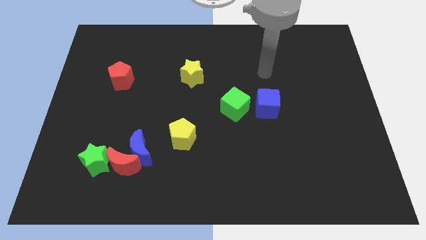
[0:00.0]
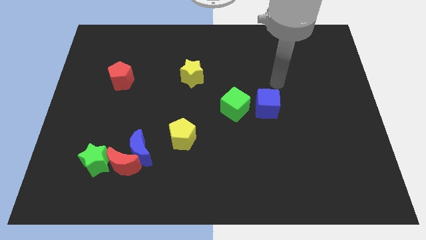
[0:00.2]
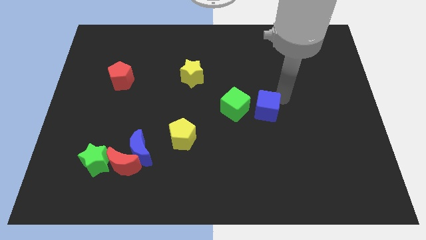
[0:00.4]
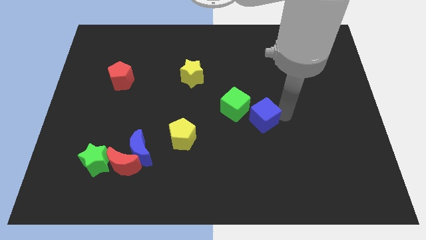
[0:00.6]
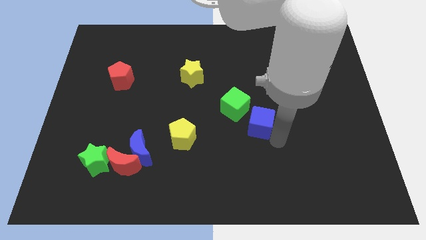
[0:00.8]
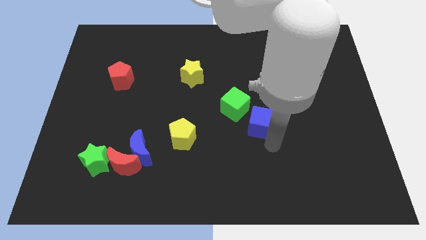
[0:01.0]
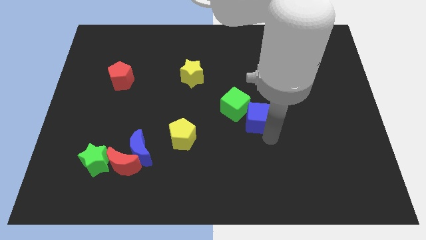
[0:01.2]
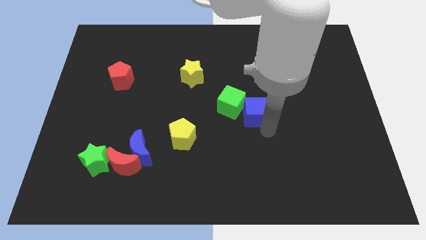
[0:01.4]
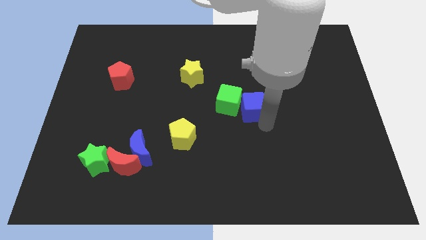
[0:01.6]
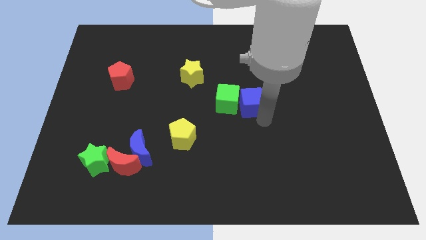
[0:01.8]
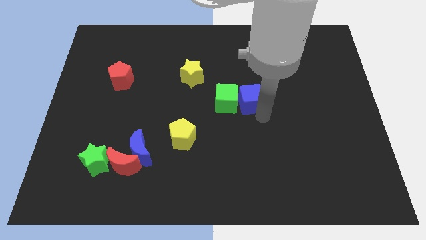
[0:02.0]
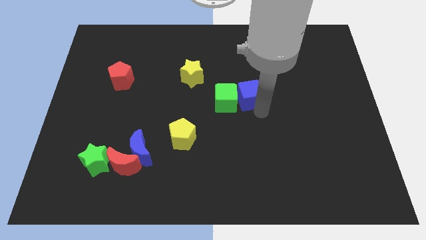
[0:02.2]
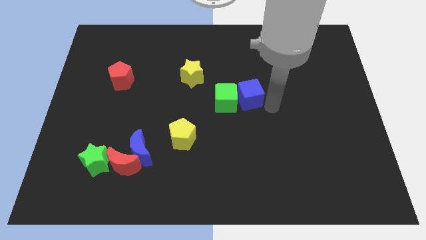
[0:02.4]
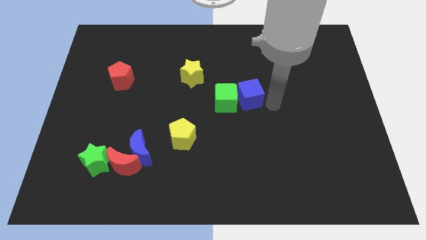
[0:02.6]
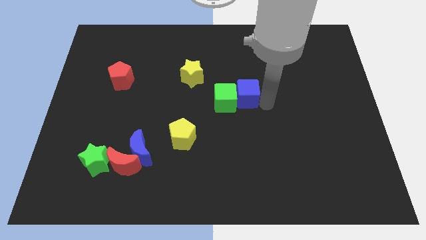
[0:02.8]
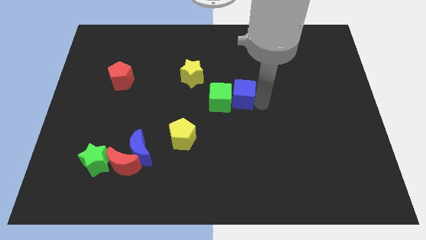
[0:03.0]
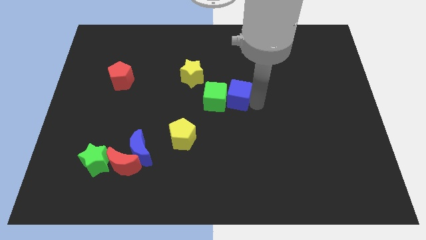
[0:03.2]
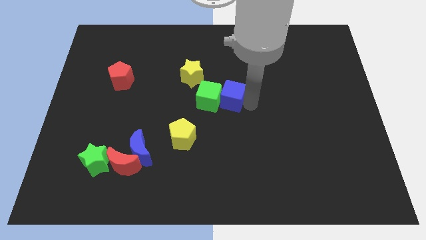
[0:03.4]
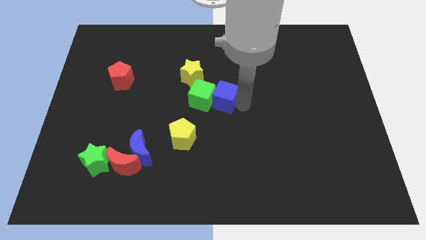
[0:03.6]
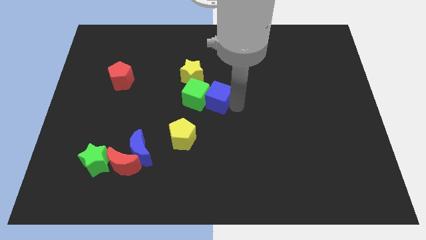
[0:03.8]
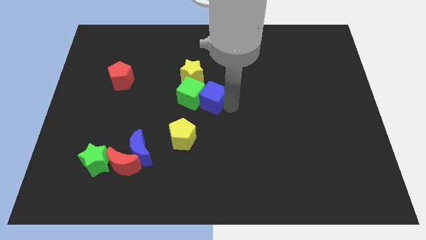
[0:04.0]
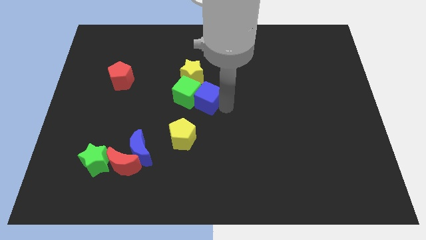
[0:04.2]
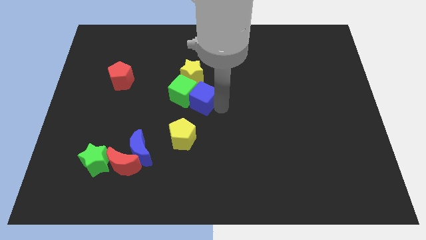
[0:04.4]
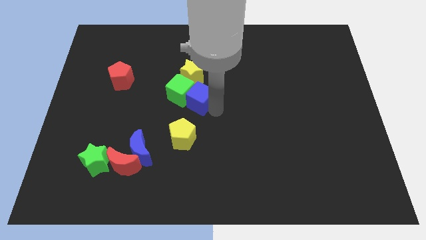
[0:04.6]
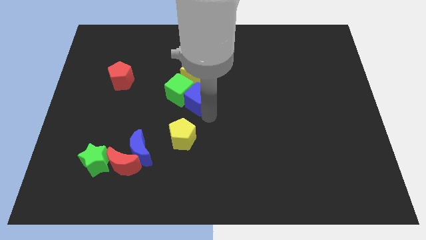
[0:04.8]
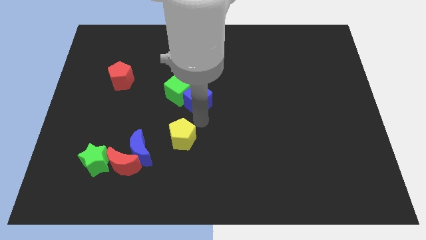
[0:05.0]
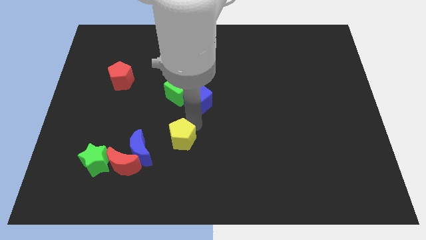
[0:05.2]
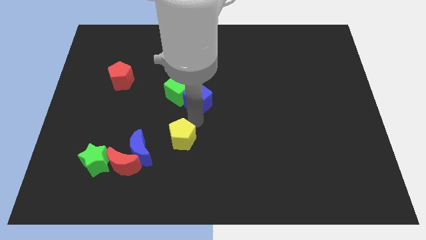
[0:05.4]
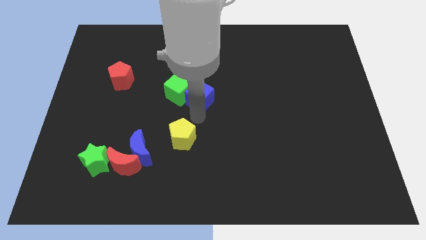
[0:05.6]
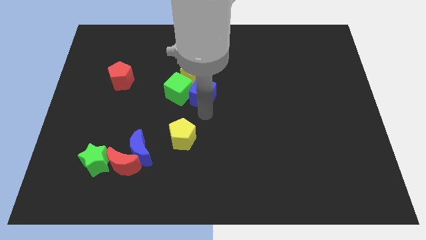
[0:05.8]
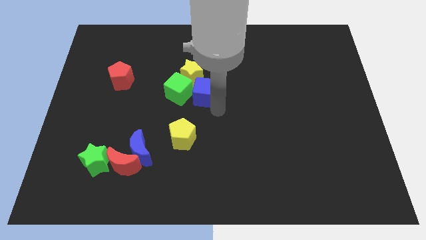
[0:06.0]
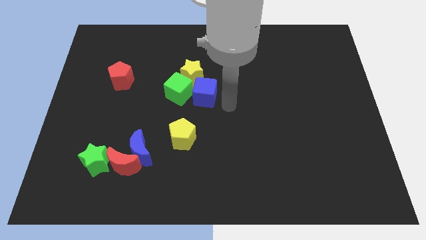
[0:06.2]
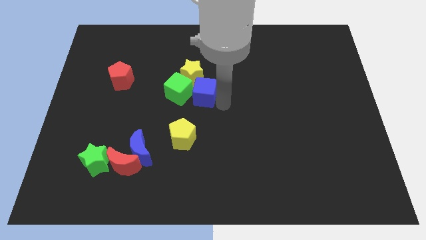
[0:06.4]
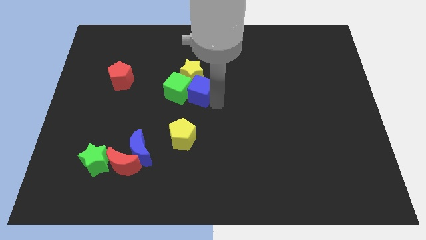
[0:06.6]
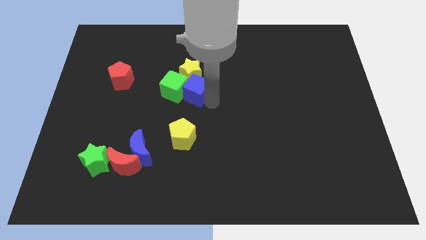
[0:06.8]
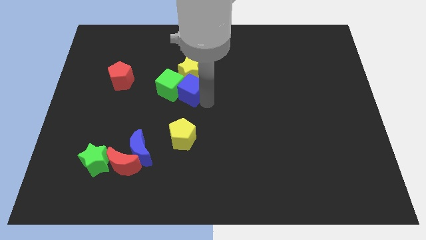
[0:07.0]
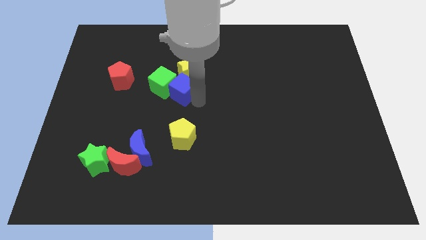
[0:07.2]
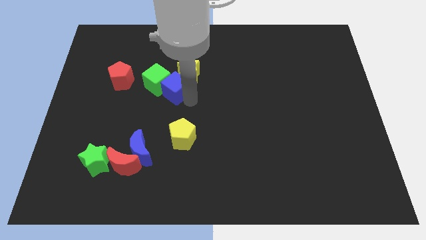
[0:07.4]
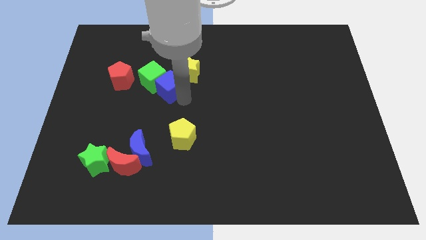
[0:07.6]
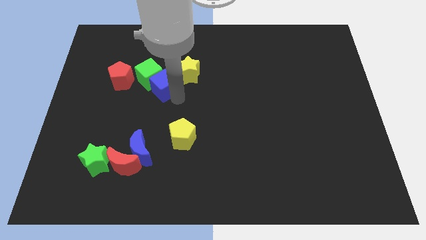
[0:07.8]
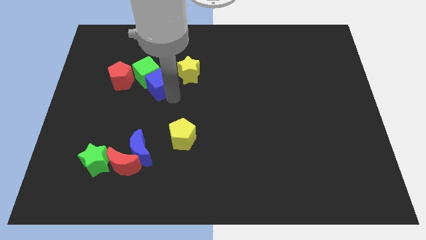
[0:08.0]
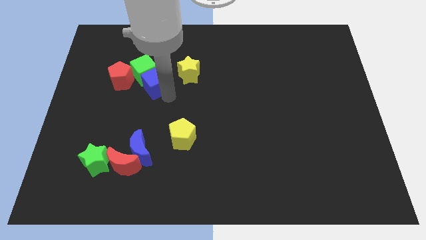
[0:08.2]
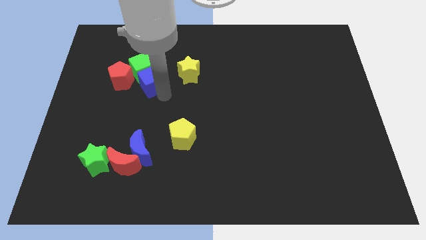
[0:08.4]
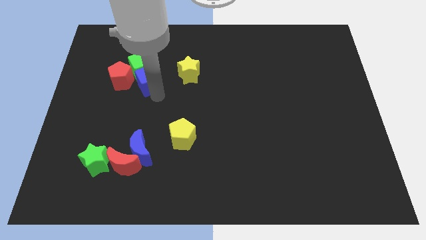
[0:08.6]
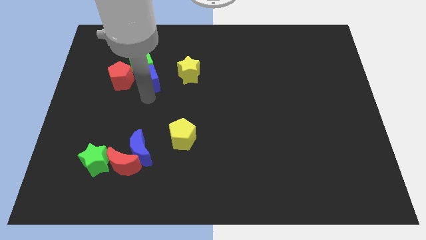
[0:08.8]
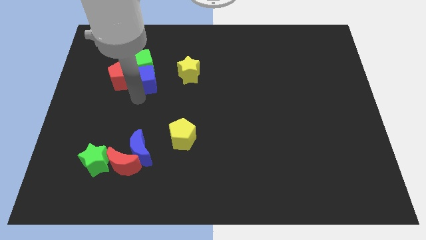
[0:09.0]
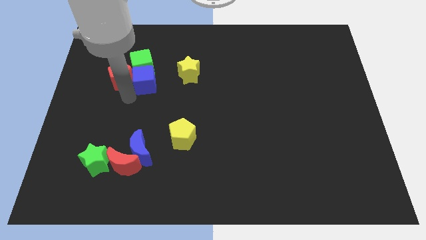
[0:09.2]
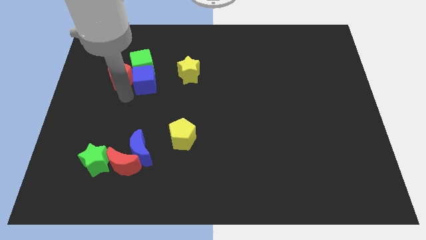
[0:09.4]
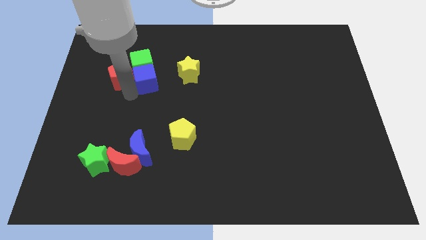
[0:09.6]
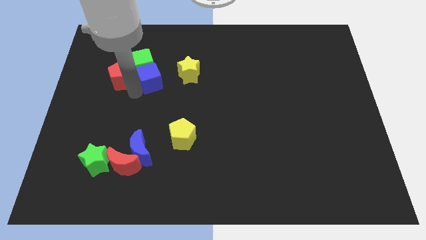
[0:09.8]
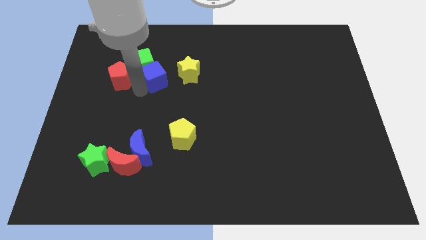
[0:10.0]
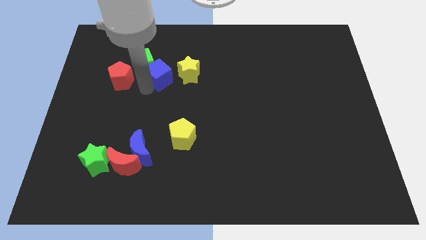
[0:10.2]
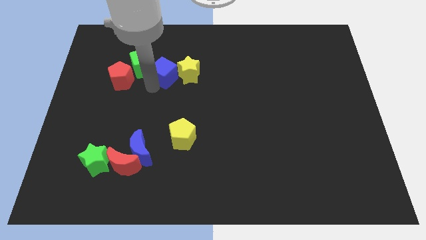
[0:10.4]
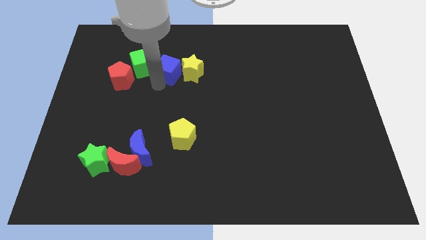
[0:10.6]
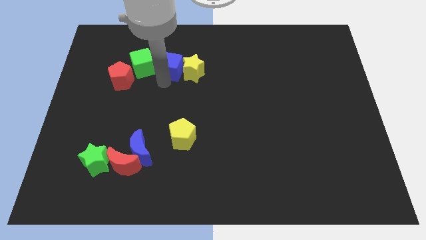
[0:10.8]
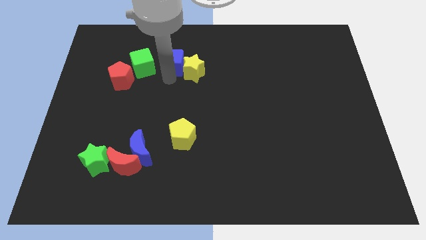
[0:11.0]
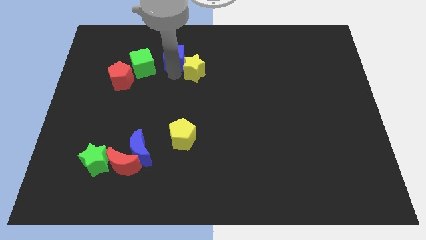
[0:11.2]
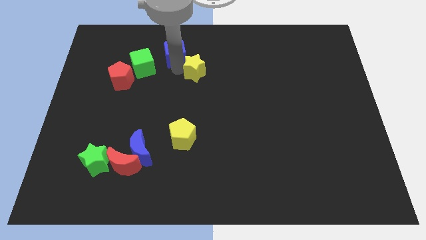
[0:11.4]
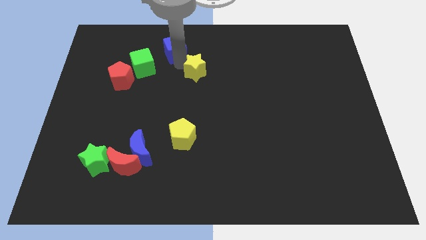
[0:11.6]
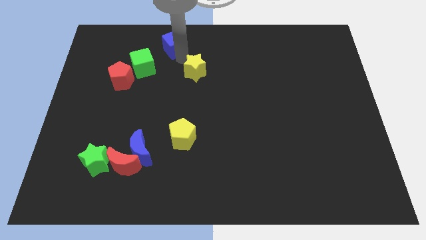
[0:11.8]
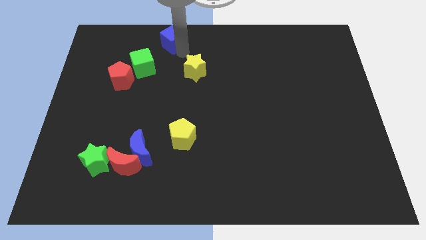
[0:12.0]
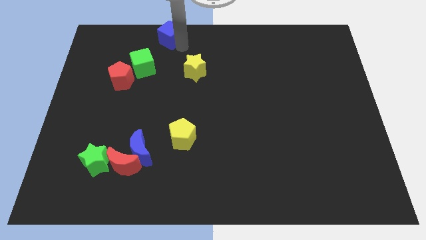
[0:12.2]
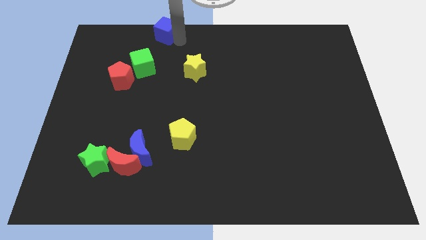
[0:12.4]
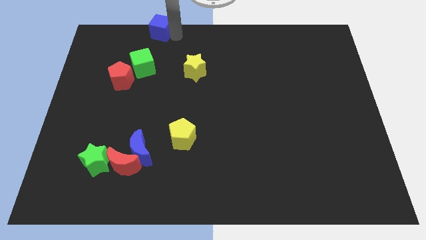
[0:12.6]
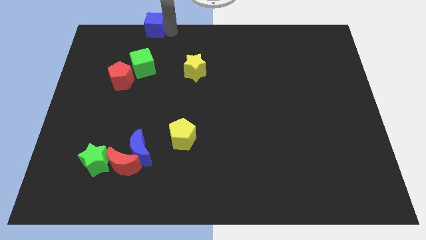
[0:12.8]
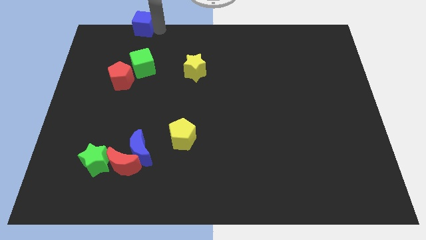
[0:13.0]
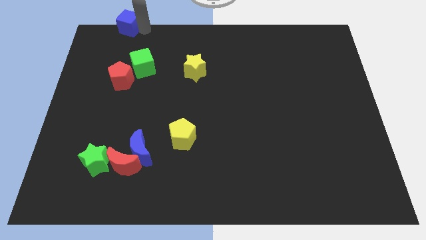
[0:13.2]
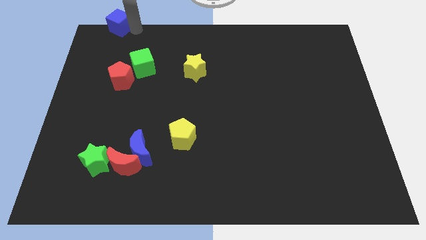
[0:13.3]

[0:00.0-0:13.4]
move the blue cube to the upper left corner

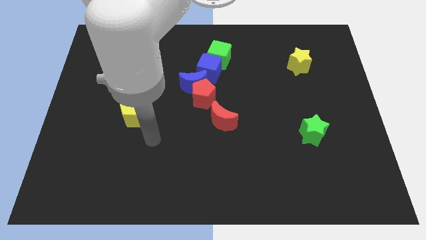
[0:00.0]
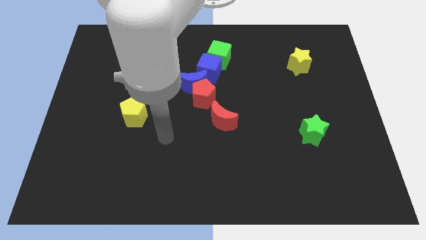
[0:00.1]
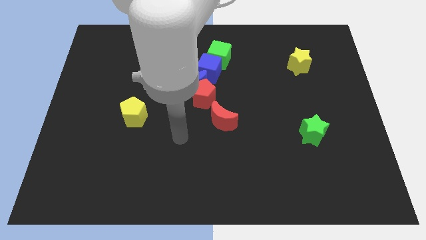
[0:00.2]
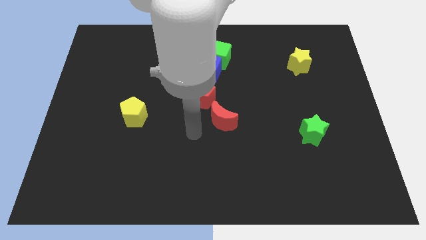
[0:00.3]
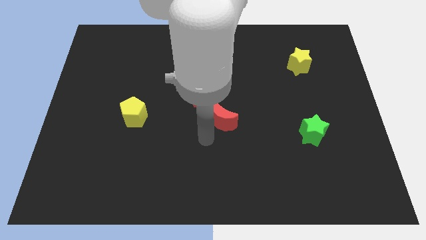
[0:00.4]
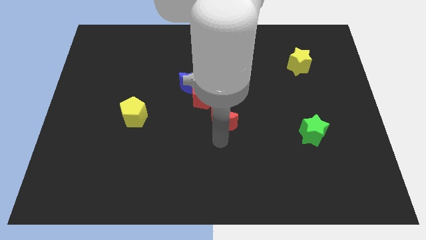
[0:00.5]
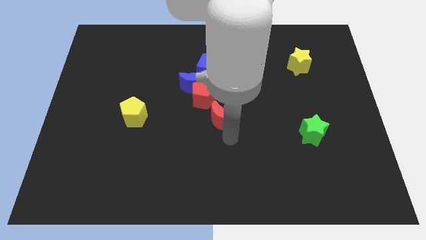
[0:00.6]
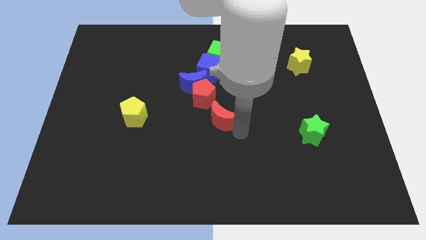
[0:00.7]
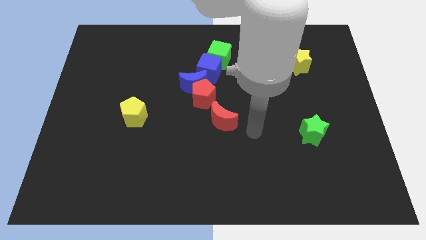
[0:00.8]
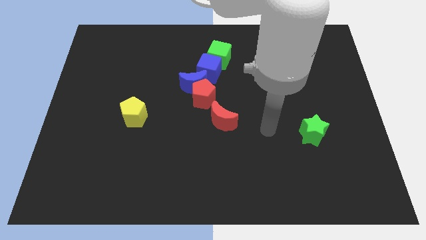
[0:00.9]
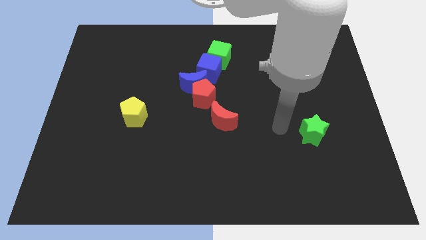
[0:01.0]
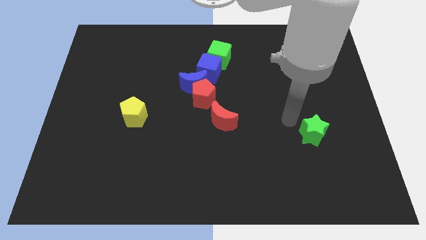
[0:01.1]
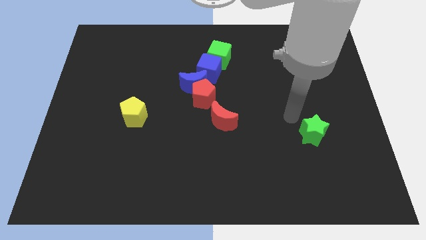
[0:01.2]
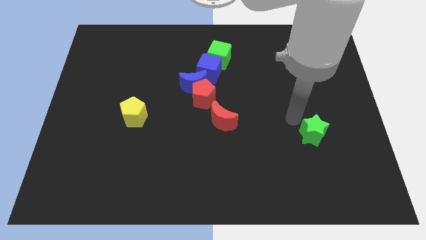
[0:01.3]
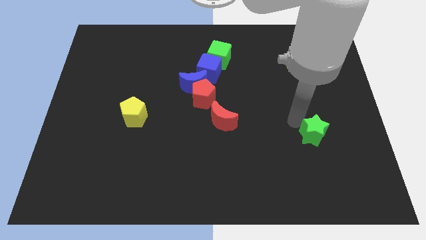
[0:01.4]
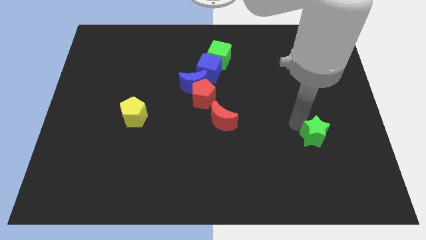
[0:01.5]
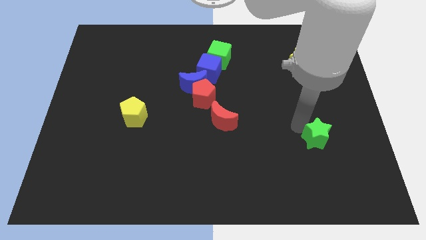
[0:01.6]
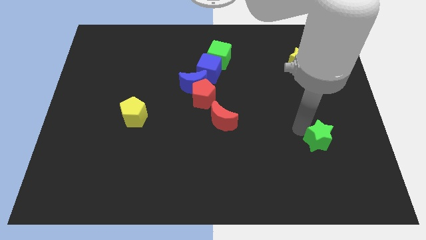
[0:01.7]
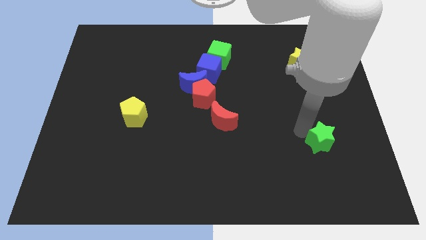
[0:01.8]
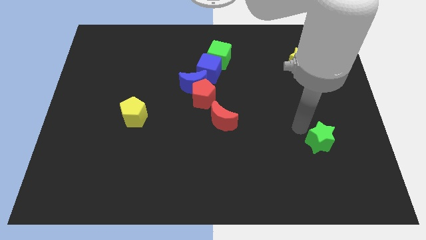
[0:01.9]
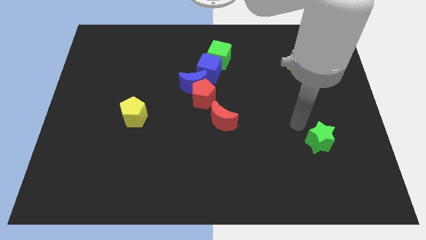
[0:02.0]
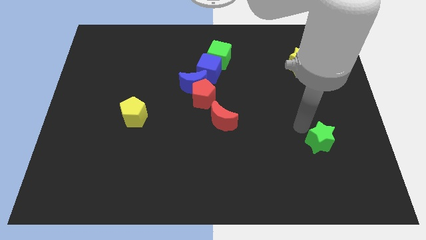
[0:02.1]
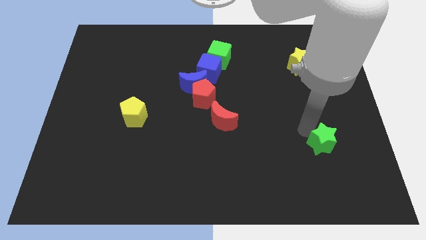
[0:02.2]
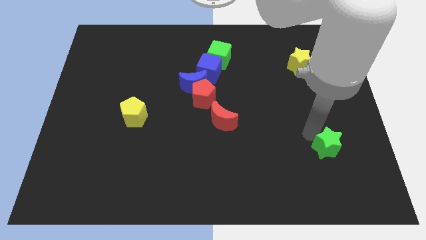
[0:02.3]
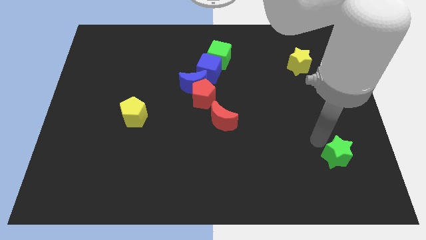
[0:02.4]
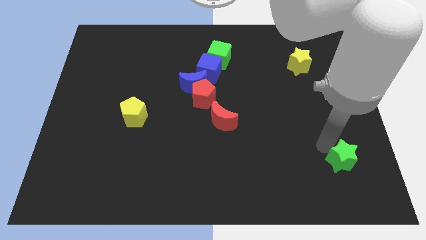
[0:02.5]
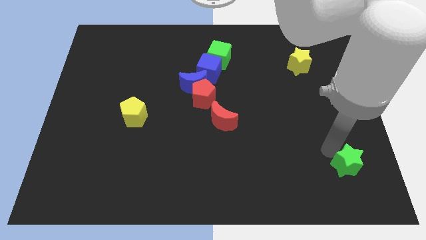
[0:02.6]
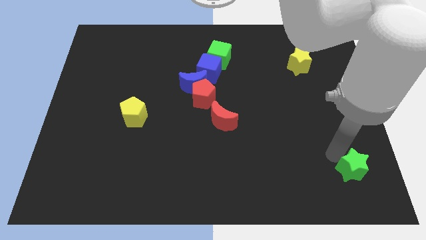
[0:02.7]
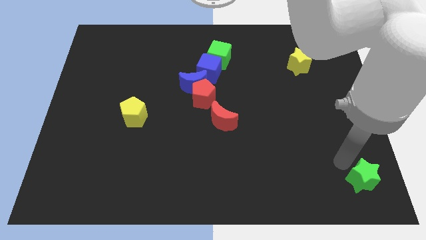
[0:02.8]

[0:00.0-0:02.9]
put the green star to the bottom right corner
